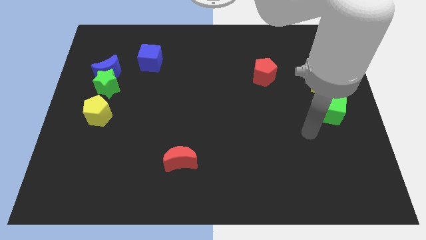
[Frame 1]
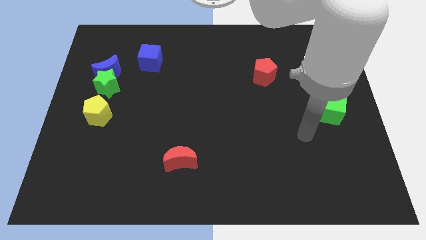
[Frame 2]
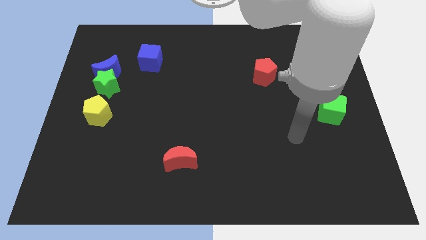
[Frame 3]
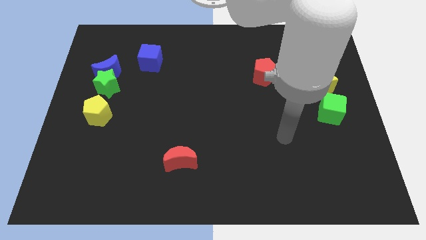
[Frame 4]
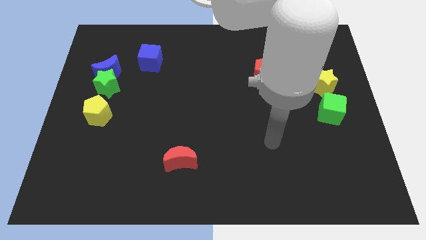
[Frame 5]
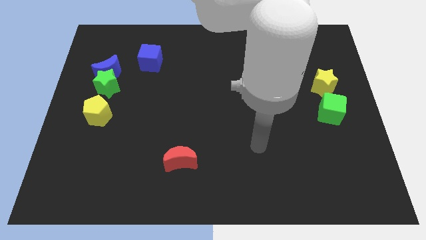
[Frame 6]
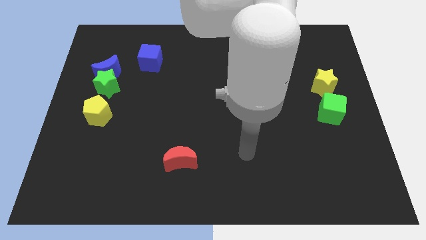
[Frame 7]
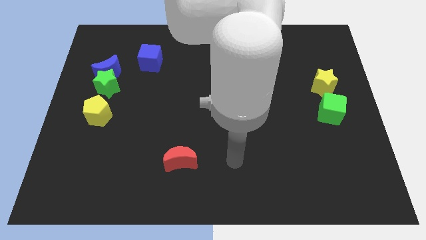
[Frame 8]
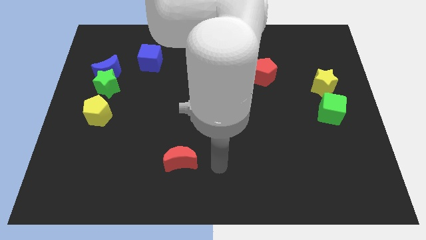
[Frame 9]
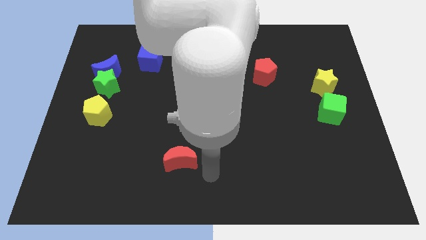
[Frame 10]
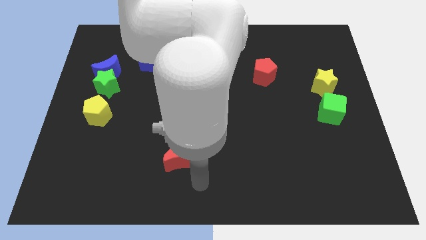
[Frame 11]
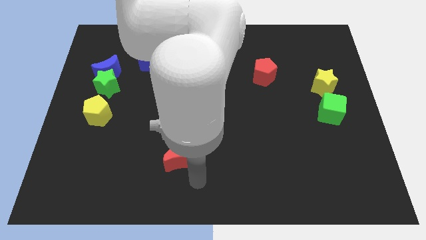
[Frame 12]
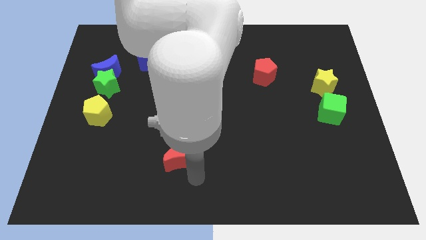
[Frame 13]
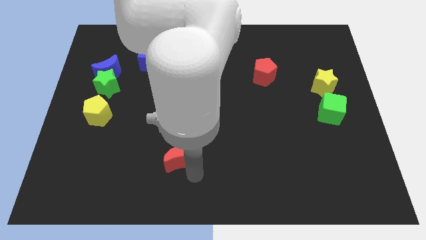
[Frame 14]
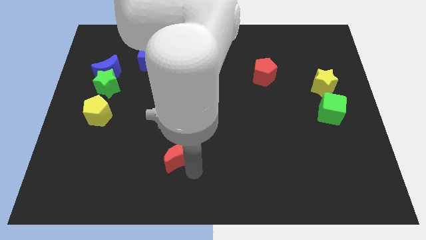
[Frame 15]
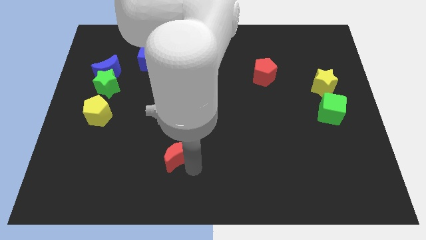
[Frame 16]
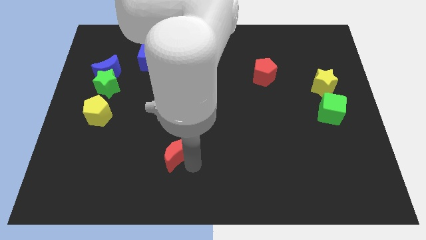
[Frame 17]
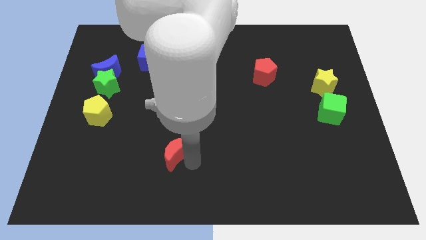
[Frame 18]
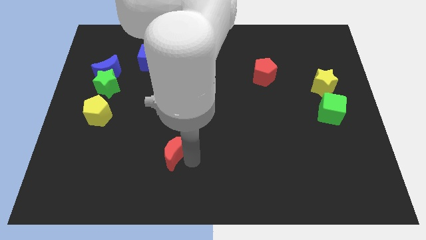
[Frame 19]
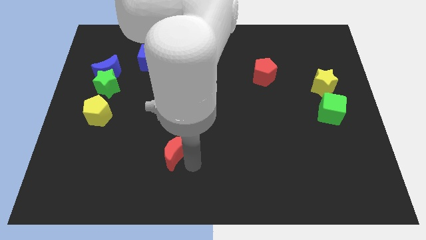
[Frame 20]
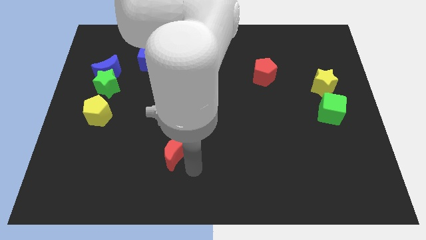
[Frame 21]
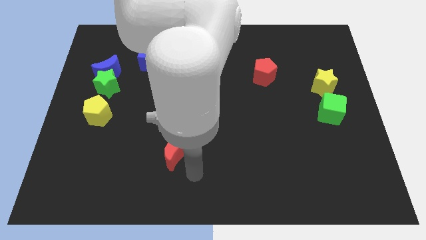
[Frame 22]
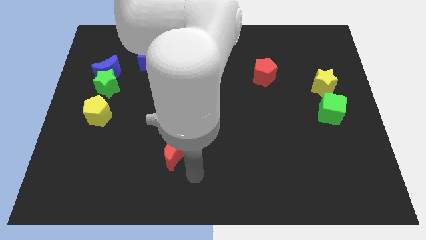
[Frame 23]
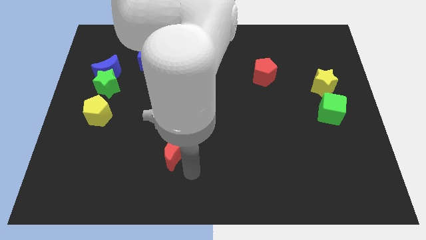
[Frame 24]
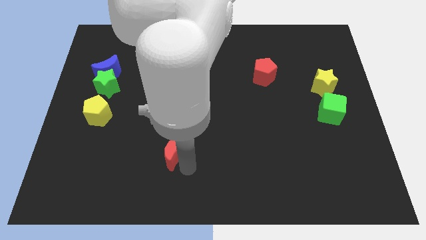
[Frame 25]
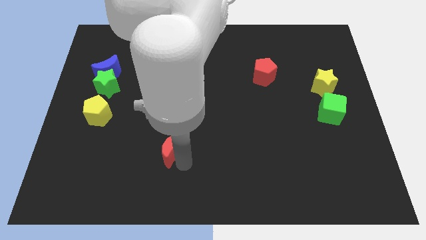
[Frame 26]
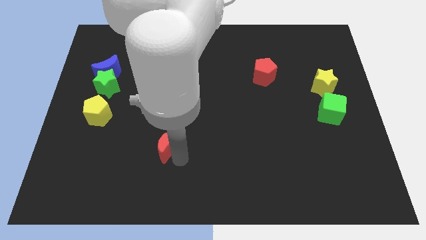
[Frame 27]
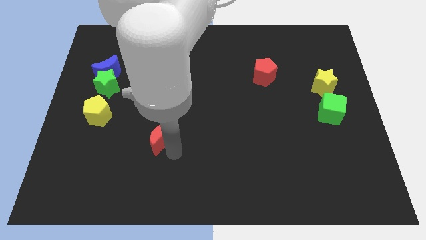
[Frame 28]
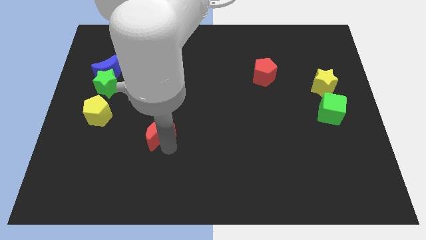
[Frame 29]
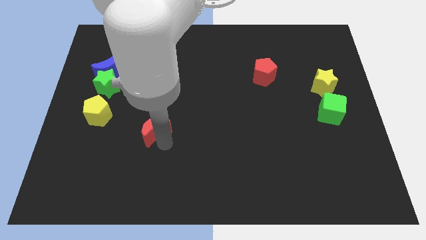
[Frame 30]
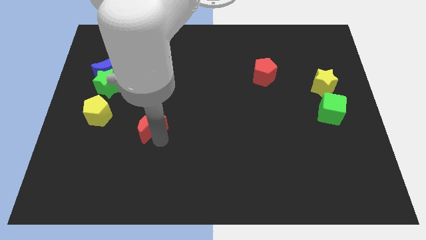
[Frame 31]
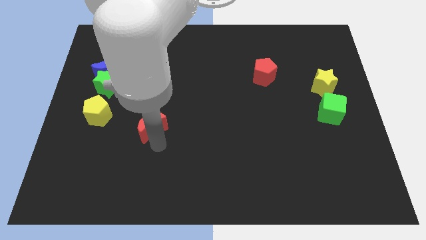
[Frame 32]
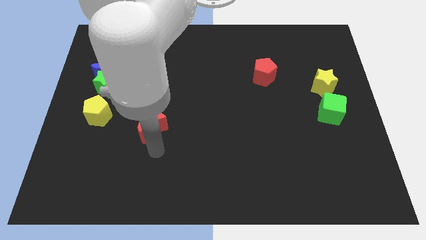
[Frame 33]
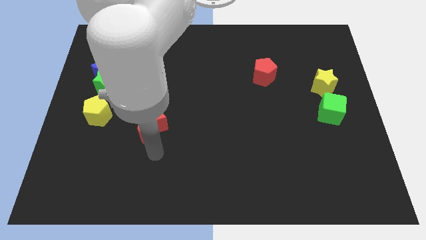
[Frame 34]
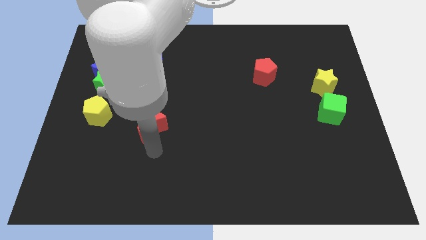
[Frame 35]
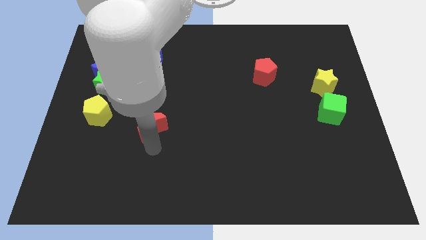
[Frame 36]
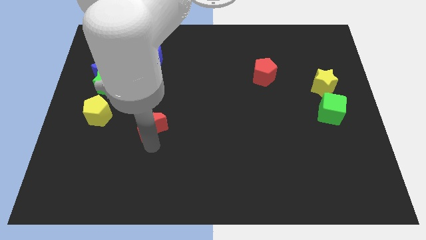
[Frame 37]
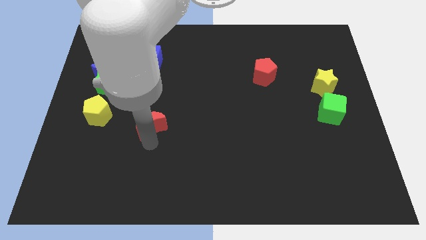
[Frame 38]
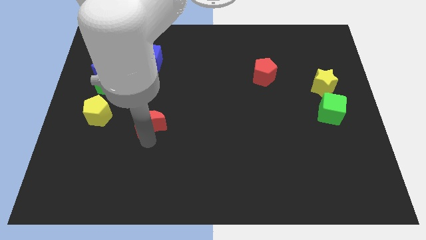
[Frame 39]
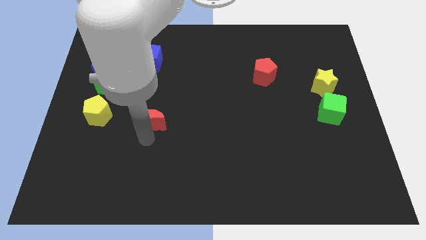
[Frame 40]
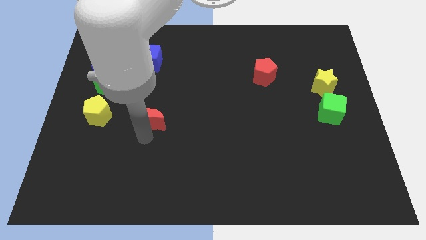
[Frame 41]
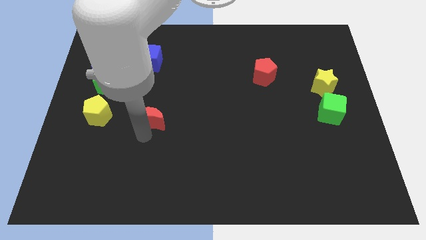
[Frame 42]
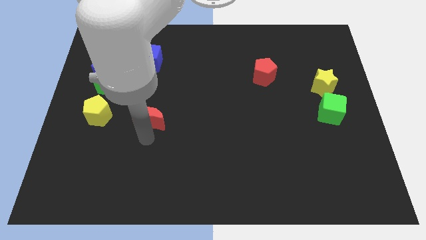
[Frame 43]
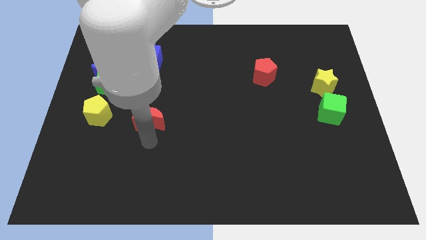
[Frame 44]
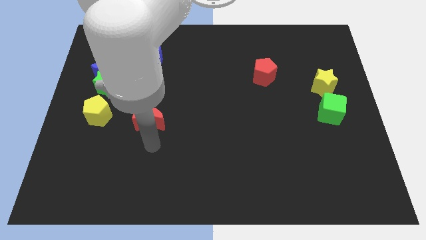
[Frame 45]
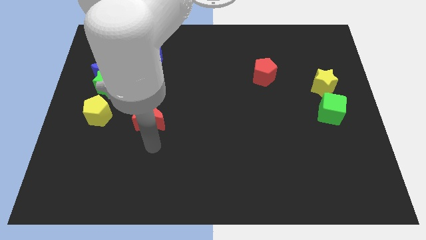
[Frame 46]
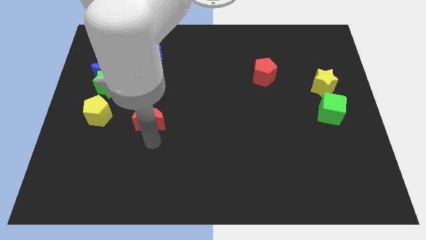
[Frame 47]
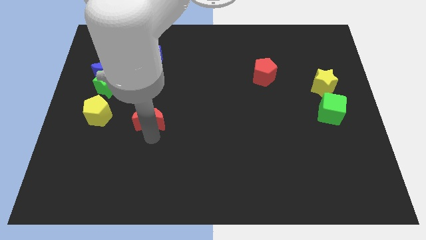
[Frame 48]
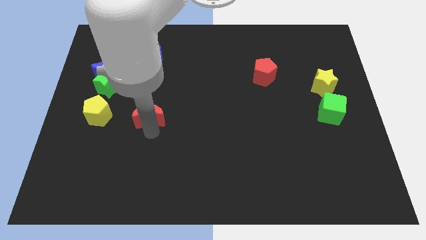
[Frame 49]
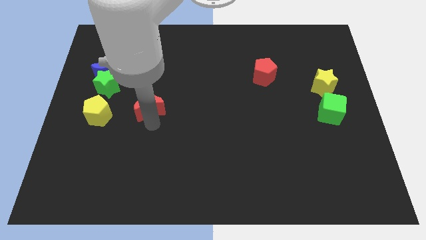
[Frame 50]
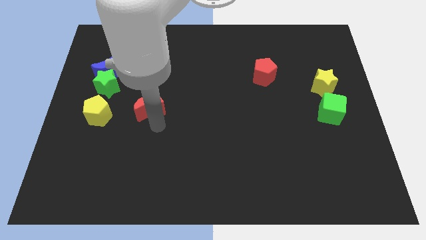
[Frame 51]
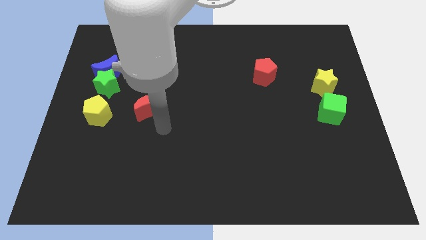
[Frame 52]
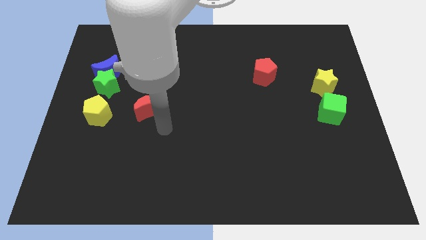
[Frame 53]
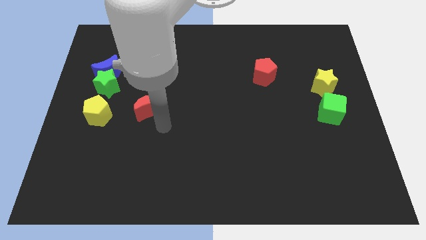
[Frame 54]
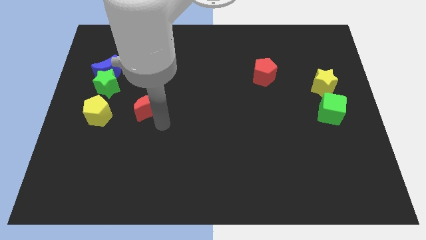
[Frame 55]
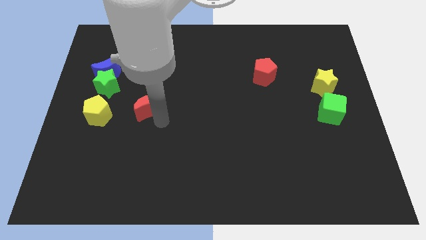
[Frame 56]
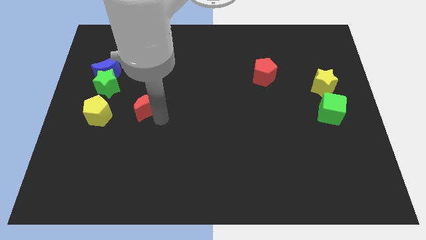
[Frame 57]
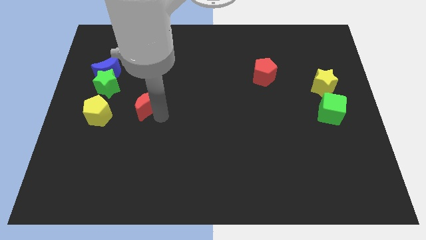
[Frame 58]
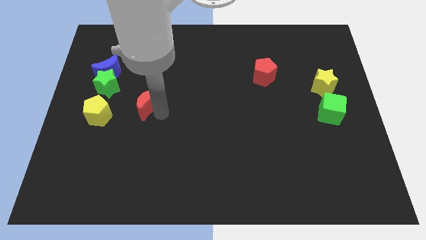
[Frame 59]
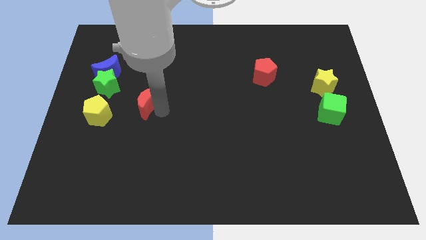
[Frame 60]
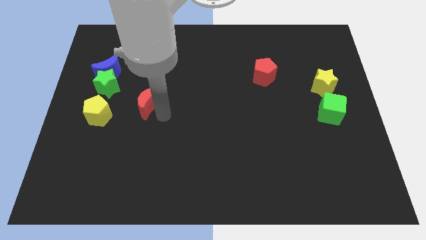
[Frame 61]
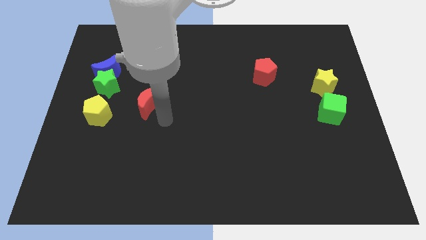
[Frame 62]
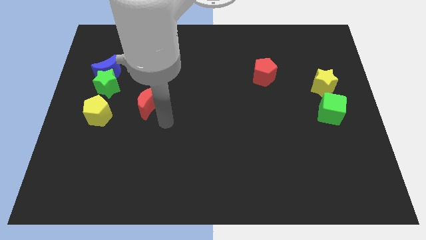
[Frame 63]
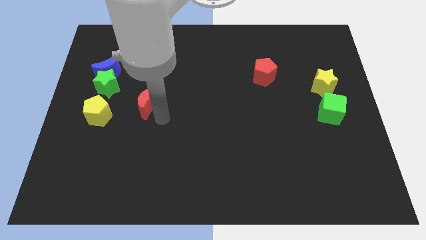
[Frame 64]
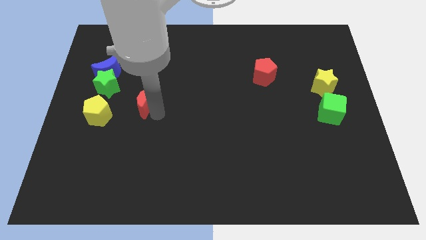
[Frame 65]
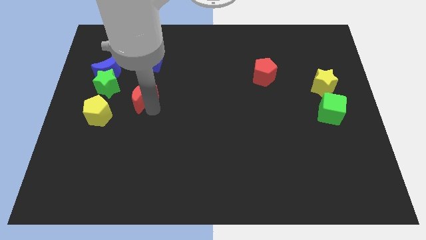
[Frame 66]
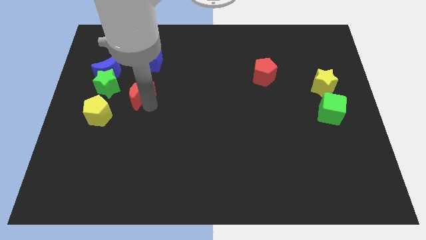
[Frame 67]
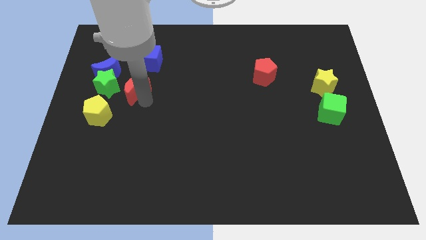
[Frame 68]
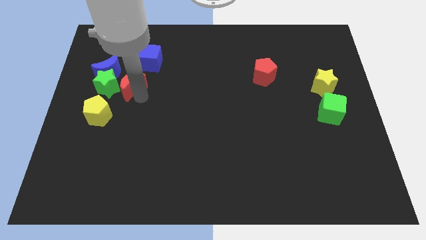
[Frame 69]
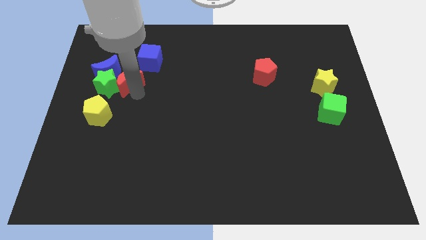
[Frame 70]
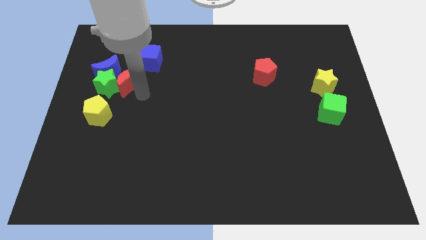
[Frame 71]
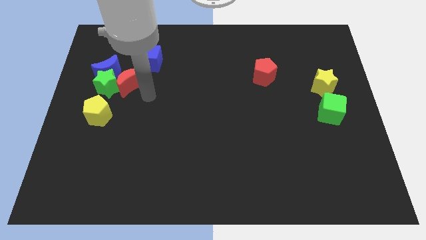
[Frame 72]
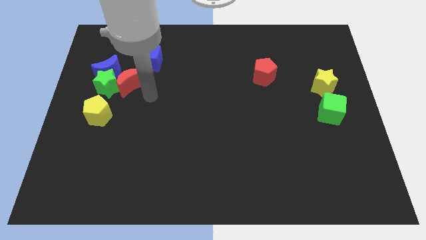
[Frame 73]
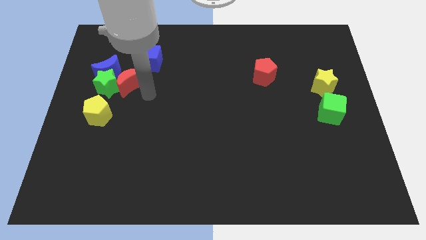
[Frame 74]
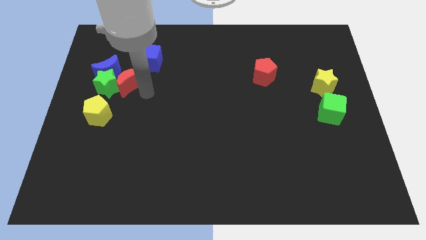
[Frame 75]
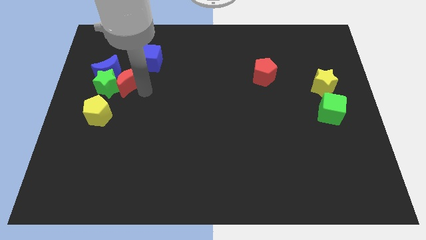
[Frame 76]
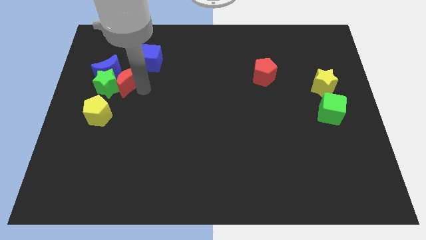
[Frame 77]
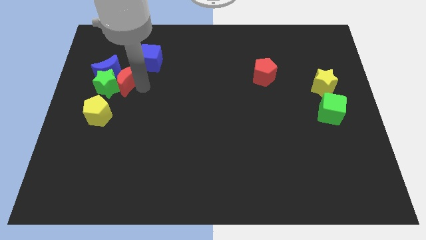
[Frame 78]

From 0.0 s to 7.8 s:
move the red moon next to the blue moon
